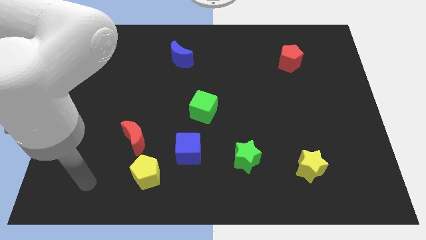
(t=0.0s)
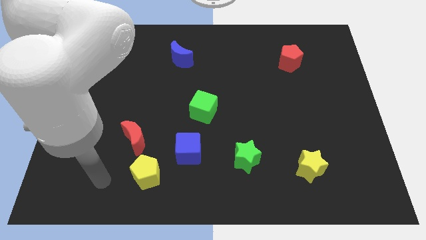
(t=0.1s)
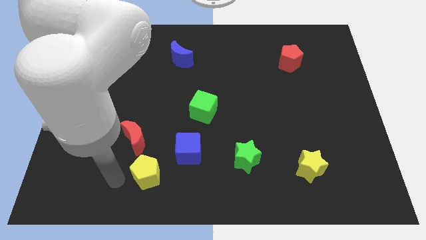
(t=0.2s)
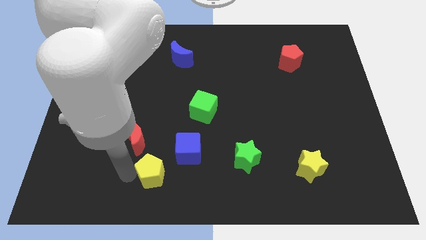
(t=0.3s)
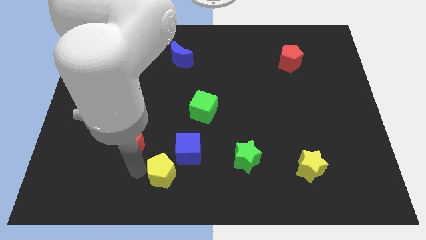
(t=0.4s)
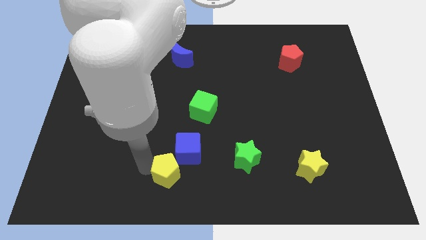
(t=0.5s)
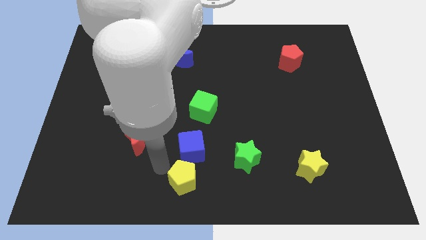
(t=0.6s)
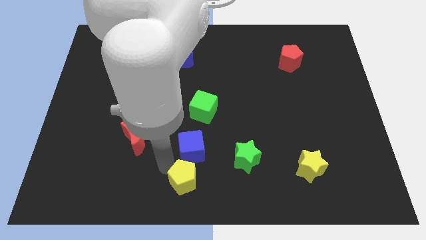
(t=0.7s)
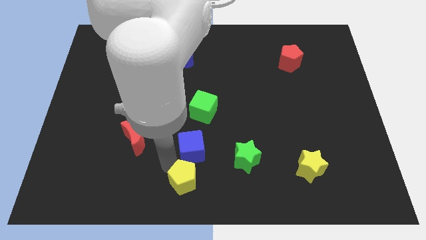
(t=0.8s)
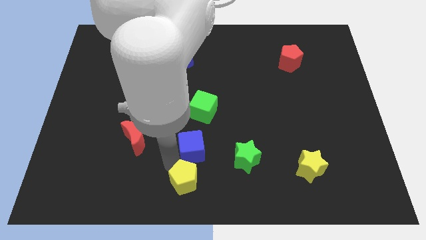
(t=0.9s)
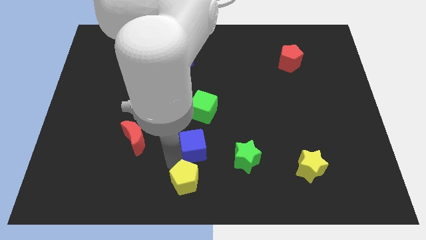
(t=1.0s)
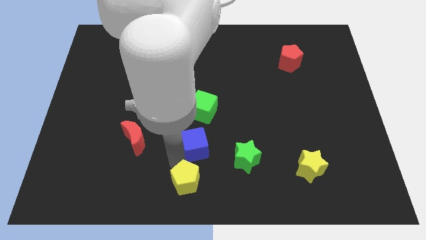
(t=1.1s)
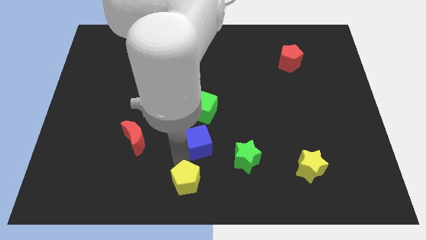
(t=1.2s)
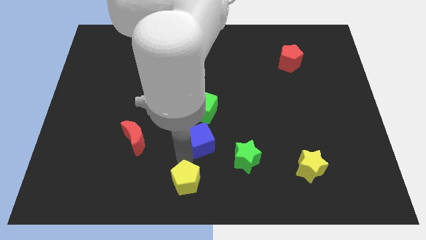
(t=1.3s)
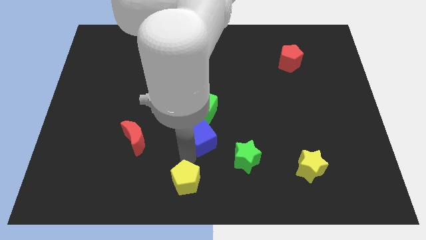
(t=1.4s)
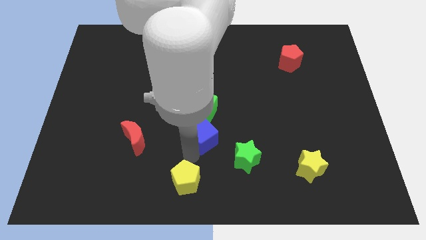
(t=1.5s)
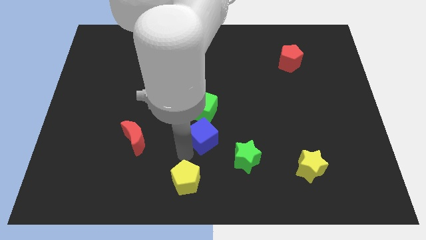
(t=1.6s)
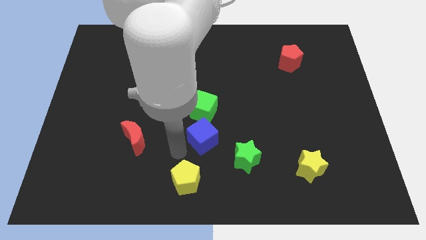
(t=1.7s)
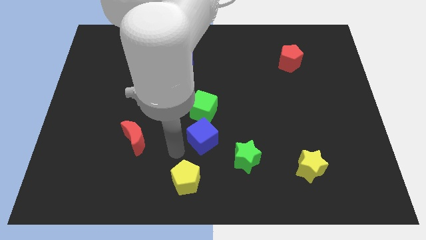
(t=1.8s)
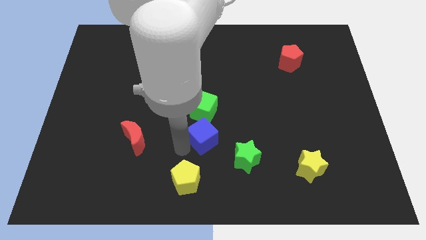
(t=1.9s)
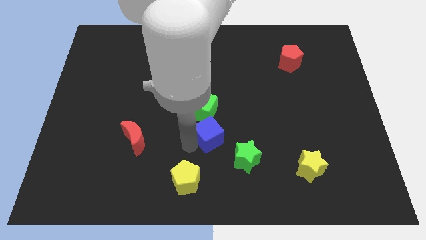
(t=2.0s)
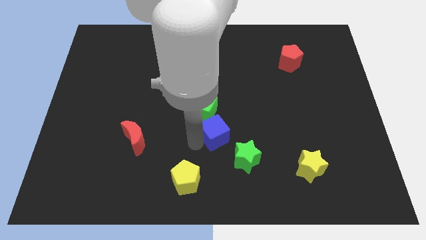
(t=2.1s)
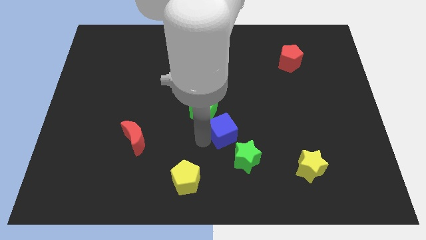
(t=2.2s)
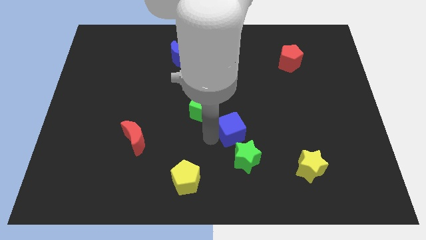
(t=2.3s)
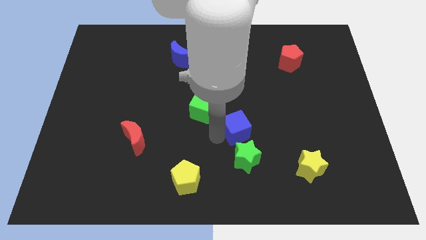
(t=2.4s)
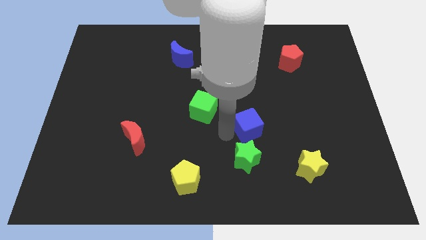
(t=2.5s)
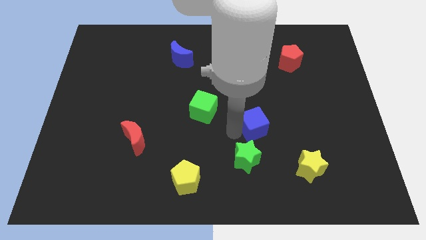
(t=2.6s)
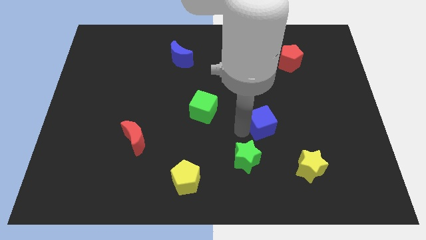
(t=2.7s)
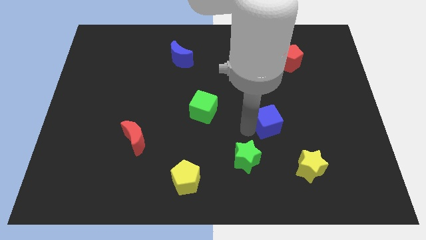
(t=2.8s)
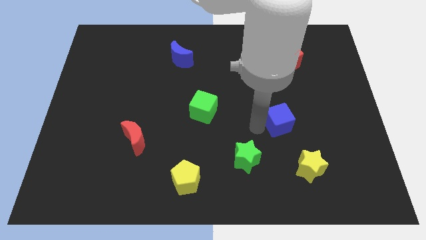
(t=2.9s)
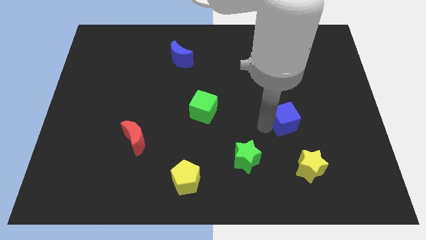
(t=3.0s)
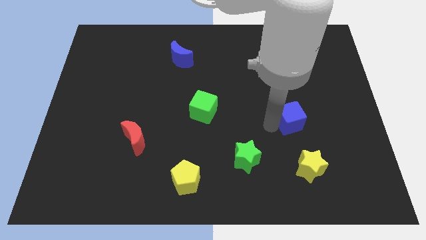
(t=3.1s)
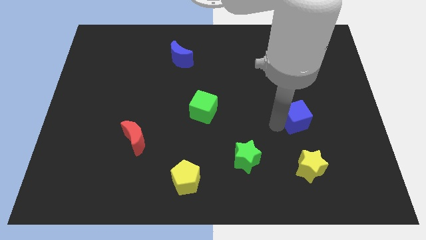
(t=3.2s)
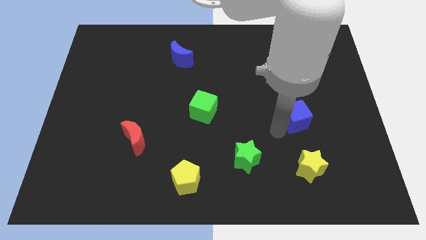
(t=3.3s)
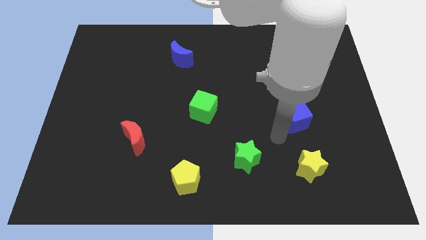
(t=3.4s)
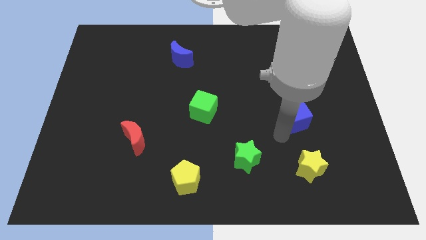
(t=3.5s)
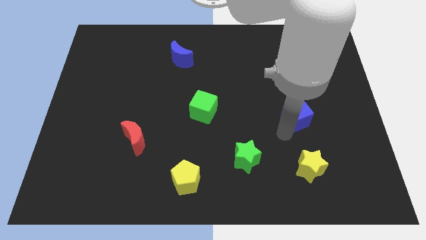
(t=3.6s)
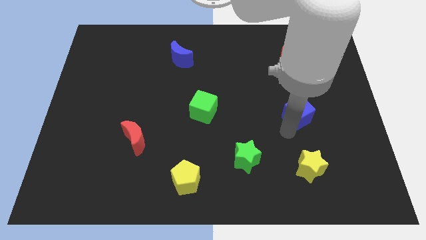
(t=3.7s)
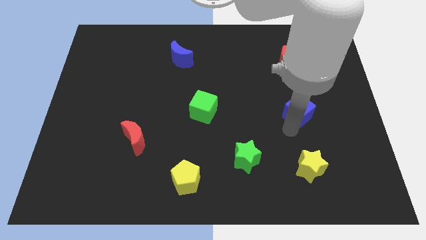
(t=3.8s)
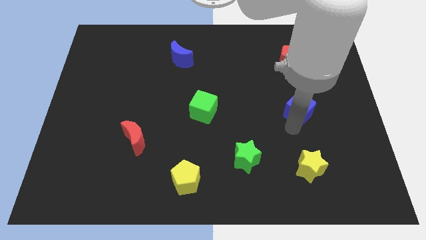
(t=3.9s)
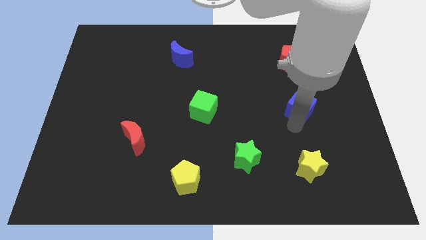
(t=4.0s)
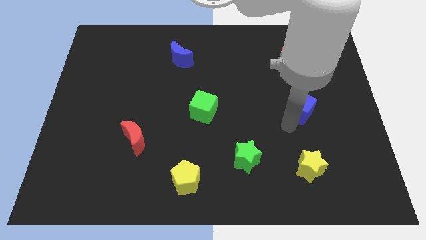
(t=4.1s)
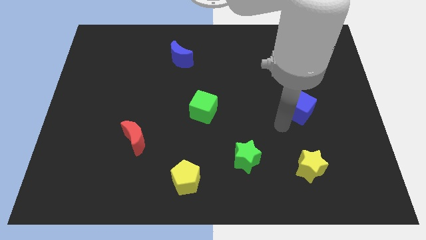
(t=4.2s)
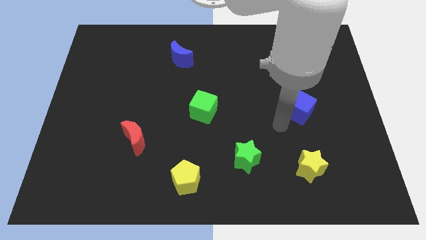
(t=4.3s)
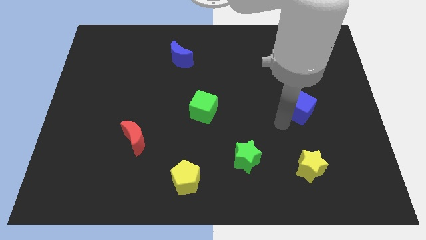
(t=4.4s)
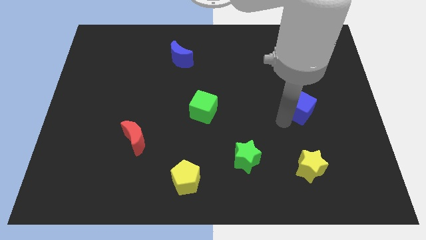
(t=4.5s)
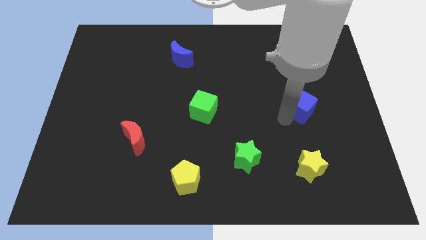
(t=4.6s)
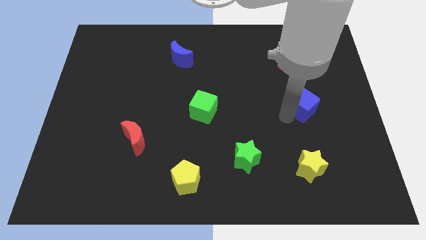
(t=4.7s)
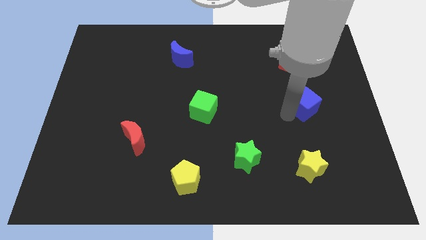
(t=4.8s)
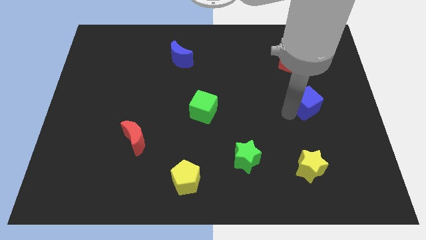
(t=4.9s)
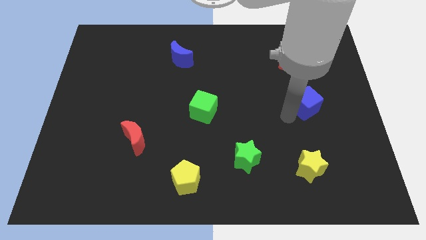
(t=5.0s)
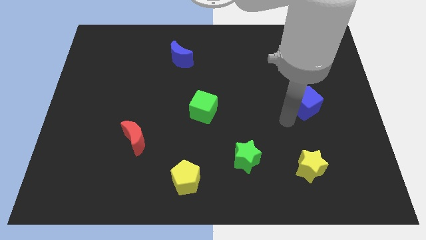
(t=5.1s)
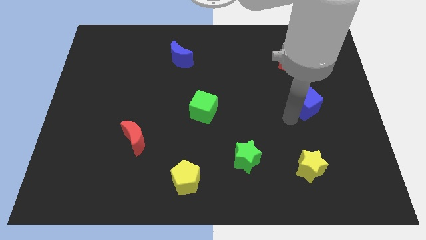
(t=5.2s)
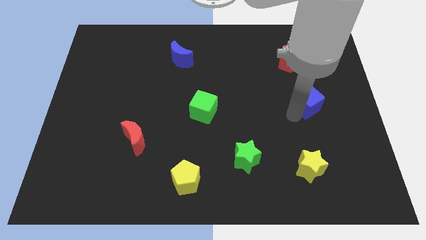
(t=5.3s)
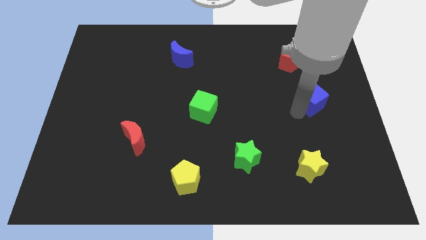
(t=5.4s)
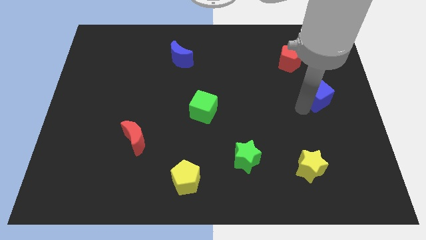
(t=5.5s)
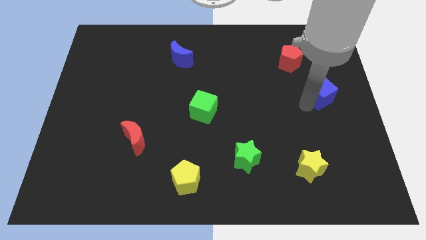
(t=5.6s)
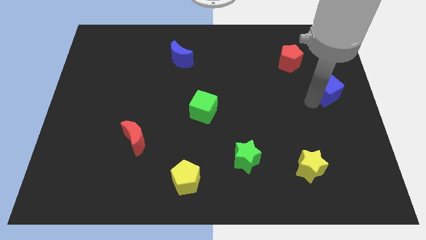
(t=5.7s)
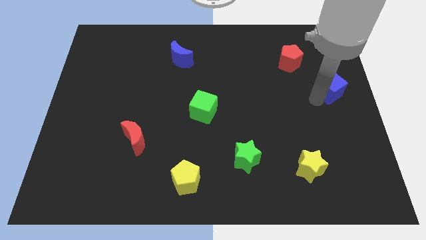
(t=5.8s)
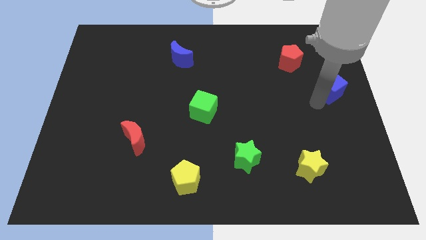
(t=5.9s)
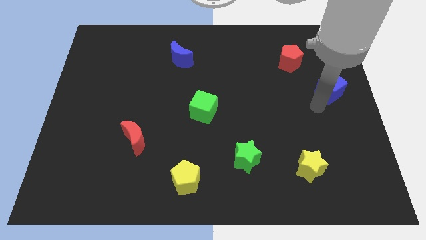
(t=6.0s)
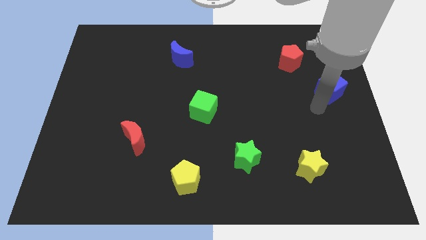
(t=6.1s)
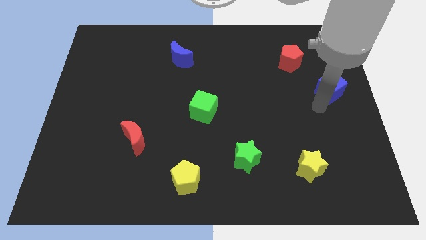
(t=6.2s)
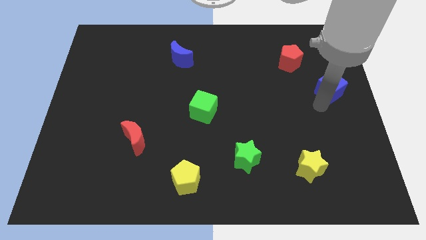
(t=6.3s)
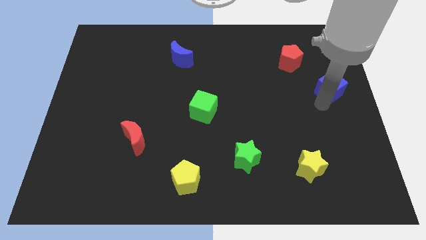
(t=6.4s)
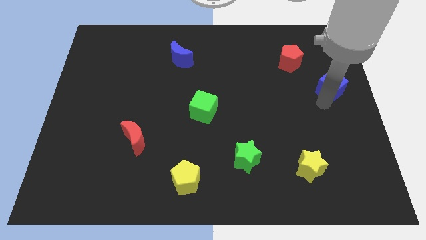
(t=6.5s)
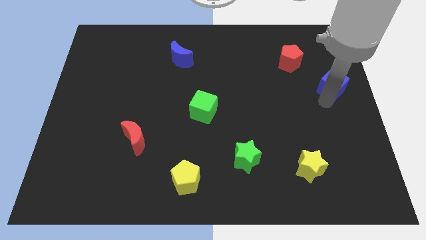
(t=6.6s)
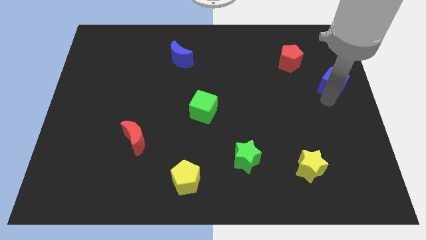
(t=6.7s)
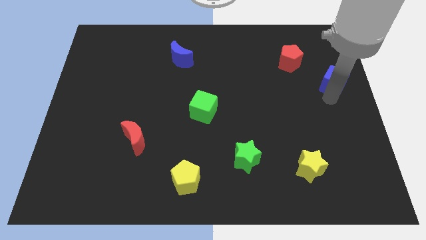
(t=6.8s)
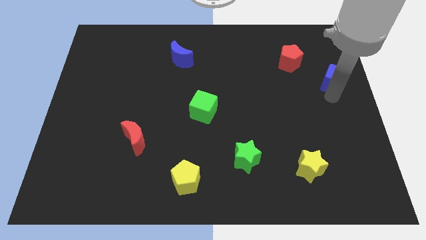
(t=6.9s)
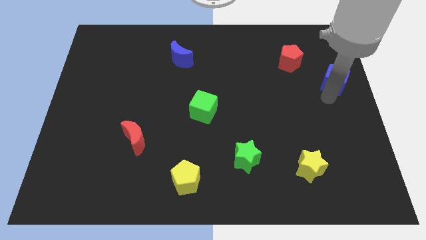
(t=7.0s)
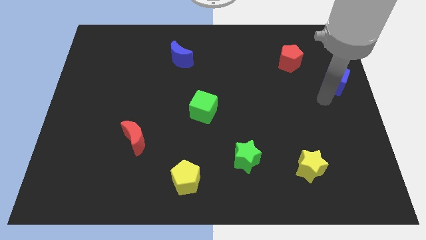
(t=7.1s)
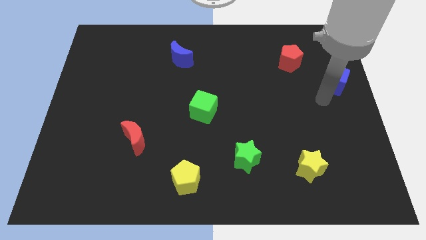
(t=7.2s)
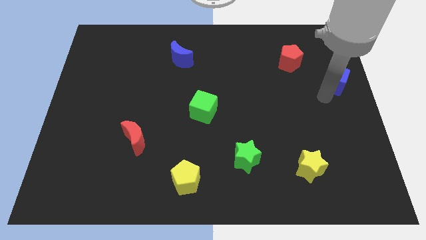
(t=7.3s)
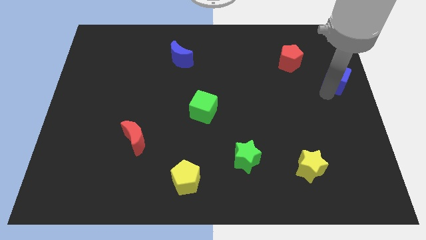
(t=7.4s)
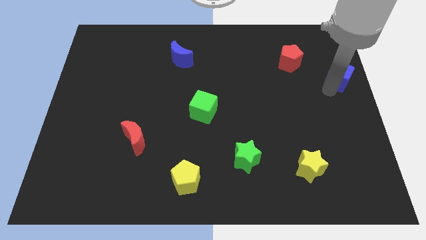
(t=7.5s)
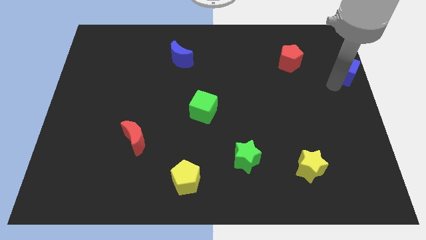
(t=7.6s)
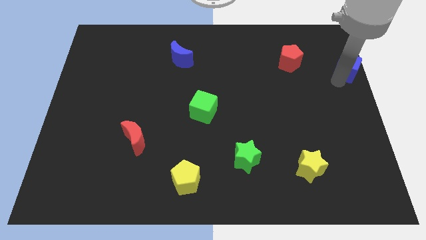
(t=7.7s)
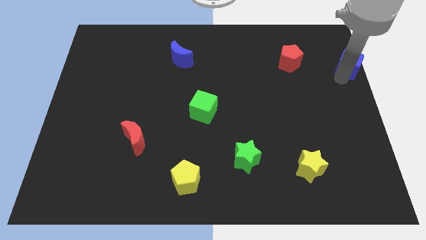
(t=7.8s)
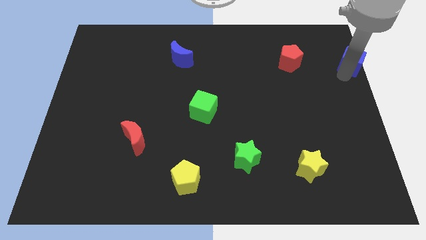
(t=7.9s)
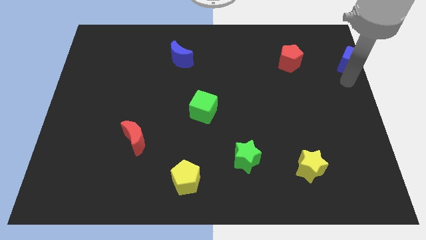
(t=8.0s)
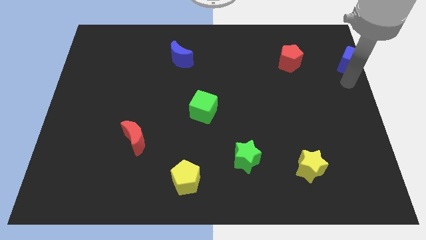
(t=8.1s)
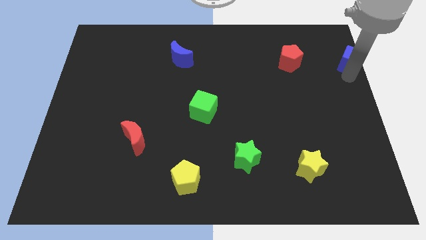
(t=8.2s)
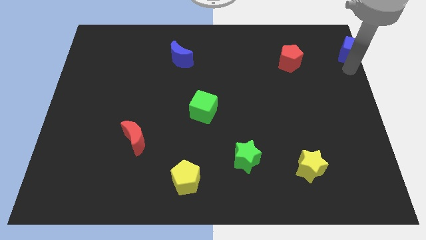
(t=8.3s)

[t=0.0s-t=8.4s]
put the blue cube to the top right corner
